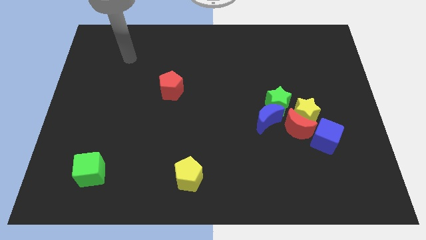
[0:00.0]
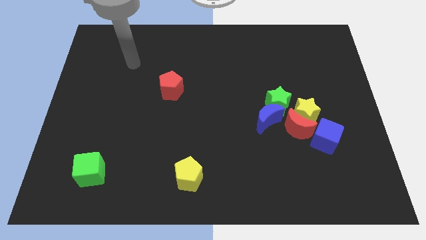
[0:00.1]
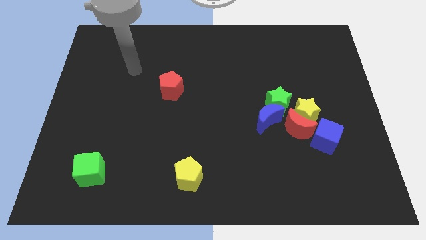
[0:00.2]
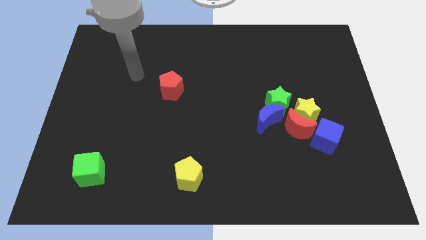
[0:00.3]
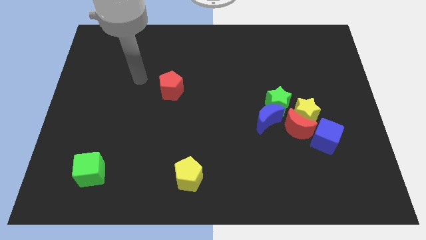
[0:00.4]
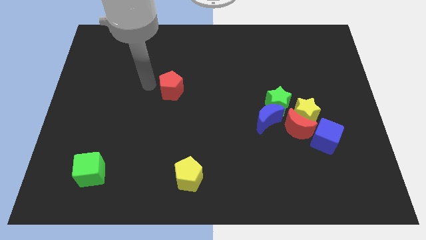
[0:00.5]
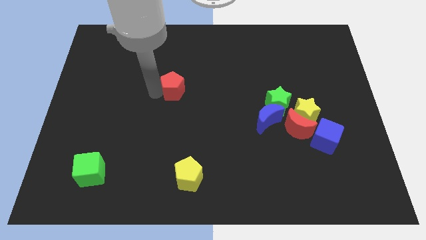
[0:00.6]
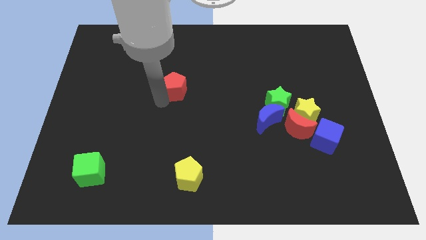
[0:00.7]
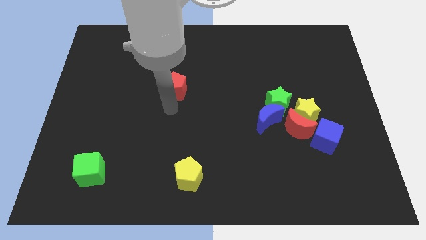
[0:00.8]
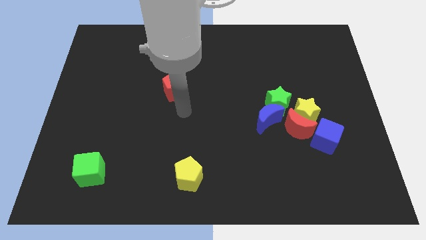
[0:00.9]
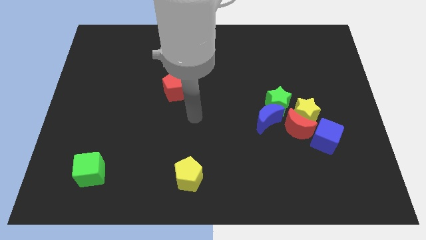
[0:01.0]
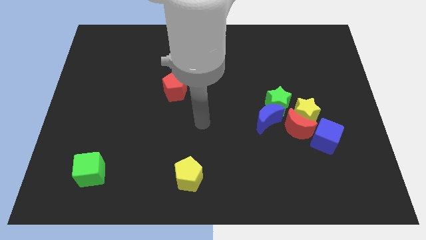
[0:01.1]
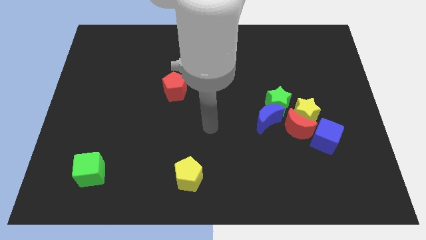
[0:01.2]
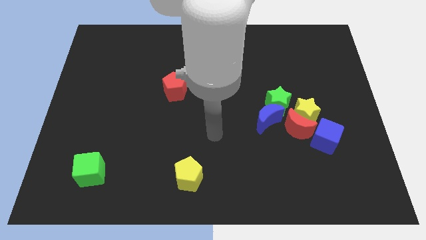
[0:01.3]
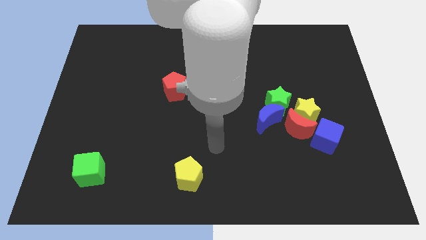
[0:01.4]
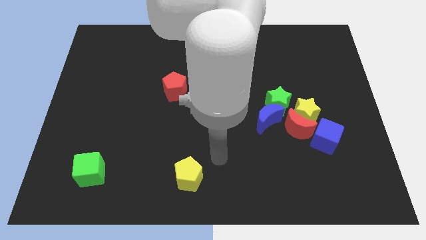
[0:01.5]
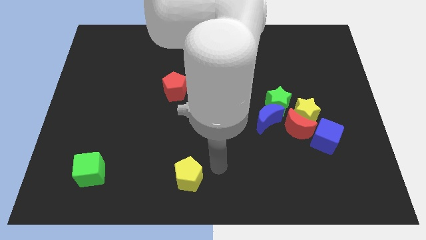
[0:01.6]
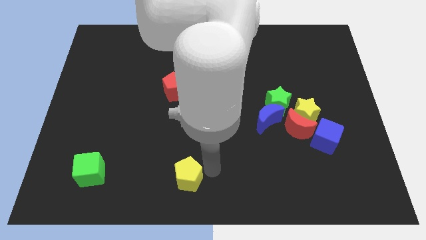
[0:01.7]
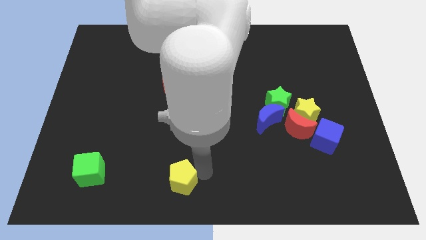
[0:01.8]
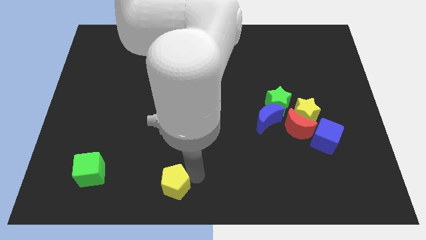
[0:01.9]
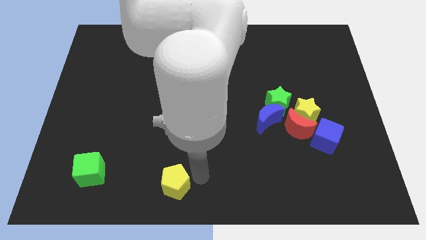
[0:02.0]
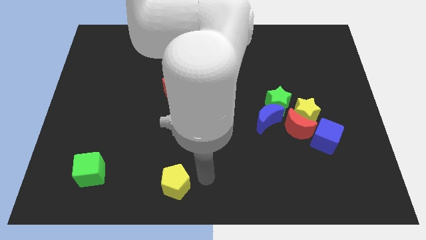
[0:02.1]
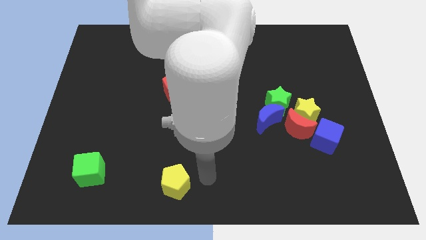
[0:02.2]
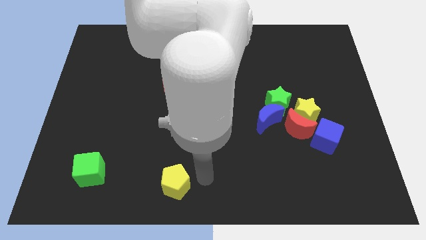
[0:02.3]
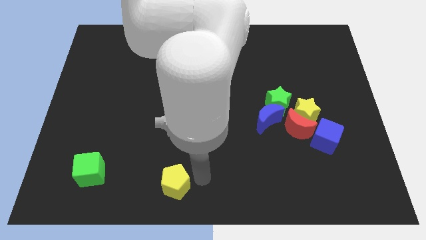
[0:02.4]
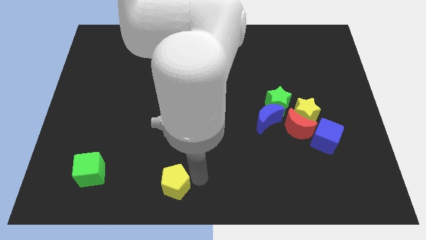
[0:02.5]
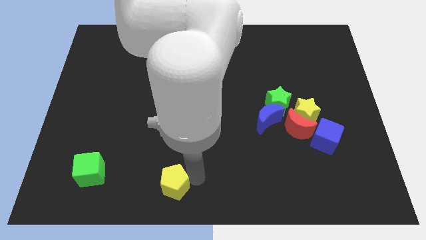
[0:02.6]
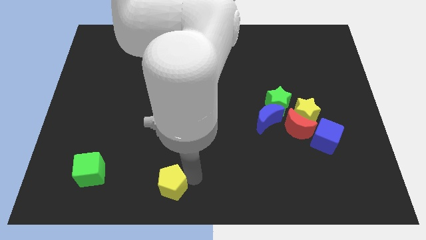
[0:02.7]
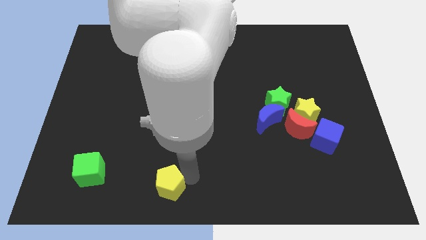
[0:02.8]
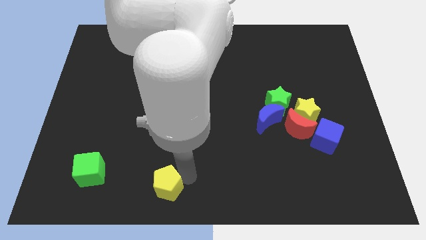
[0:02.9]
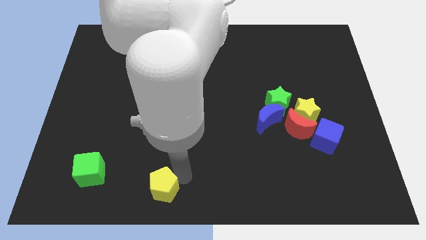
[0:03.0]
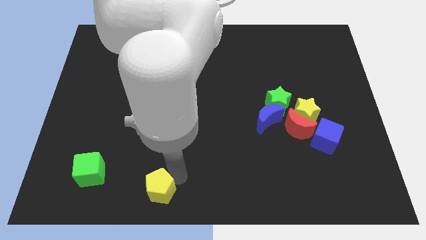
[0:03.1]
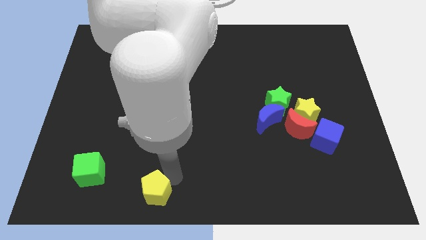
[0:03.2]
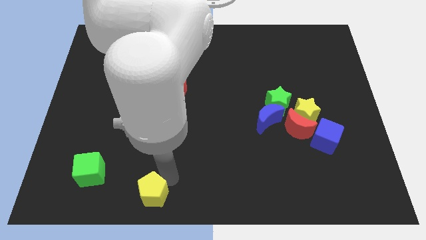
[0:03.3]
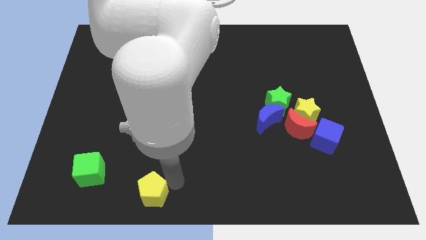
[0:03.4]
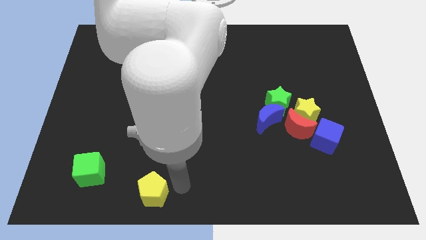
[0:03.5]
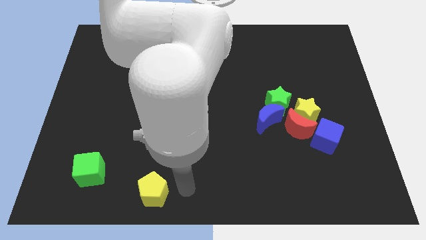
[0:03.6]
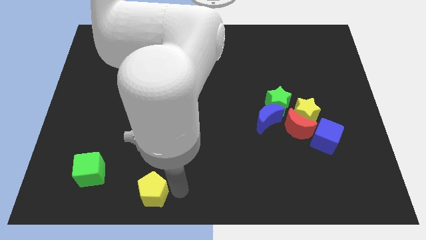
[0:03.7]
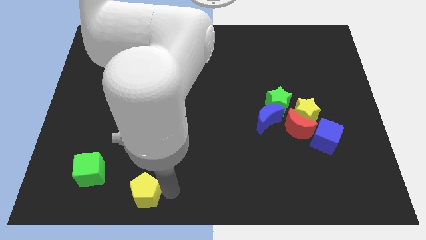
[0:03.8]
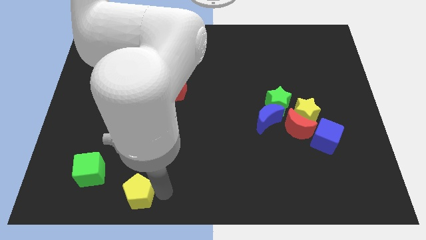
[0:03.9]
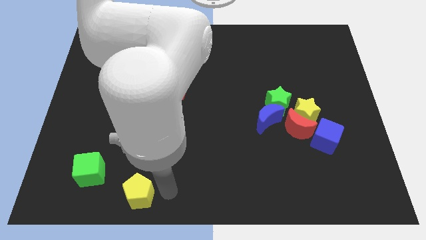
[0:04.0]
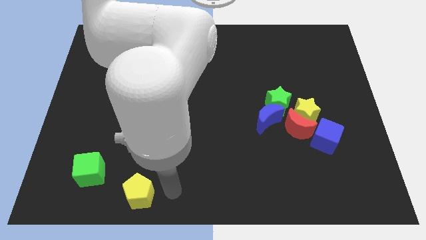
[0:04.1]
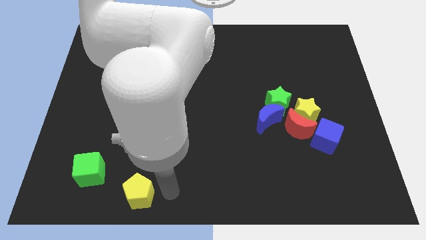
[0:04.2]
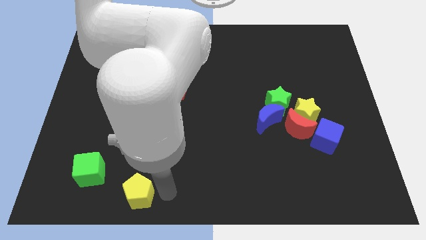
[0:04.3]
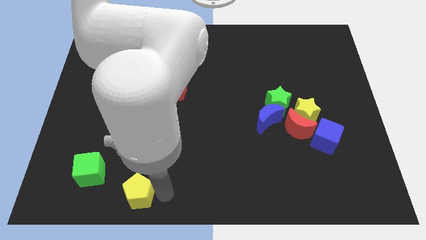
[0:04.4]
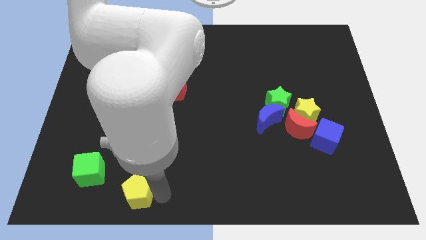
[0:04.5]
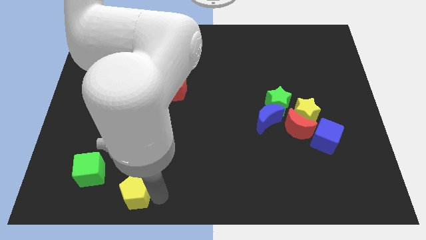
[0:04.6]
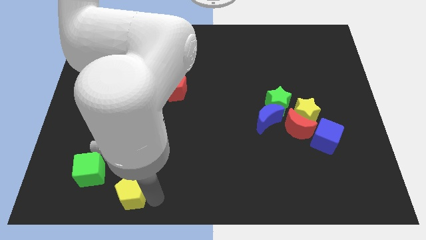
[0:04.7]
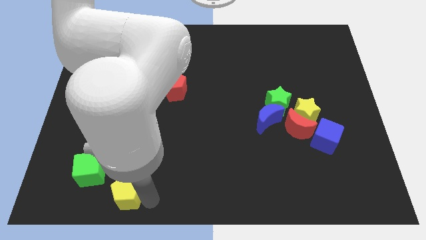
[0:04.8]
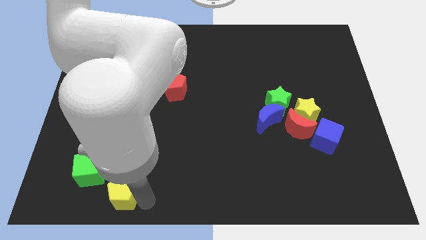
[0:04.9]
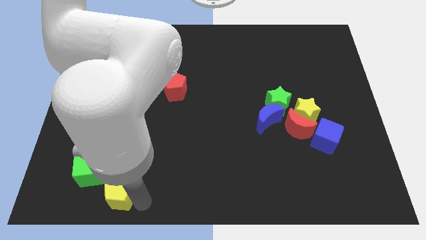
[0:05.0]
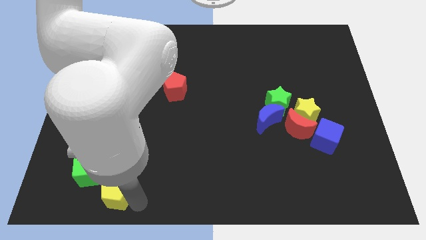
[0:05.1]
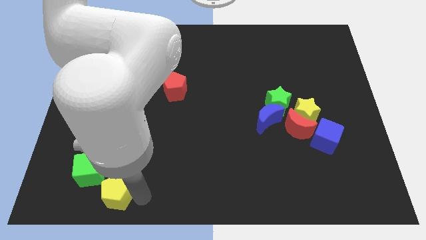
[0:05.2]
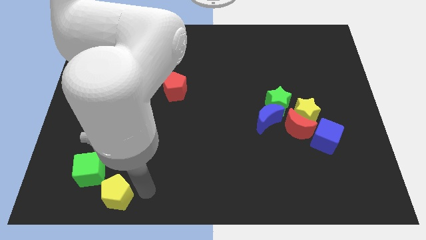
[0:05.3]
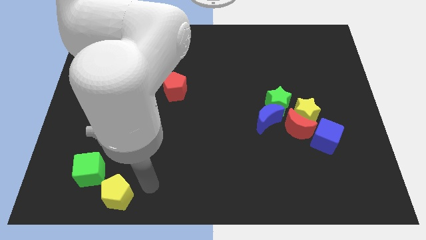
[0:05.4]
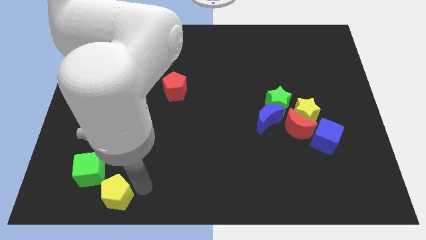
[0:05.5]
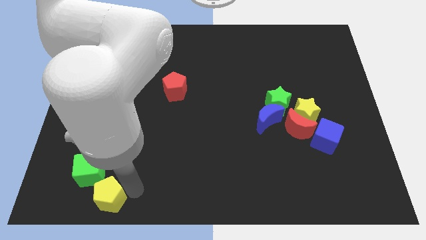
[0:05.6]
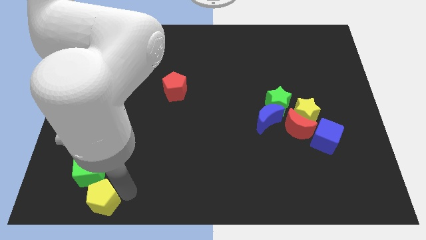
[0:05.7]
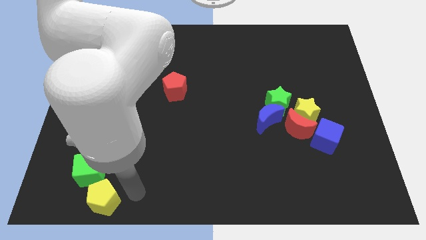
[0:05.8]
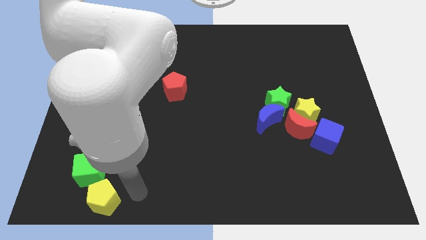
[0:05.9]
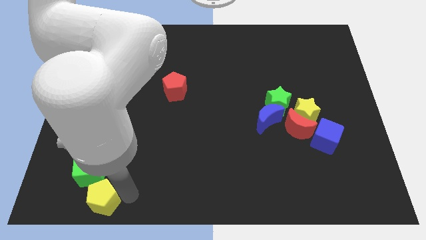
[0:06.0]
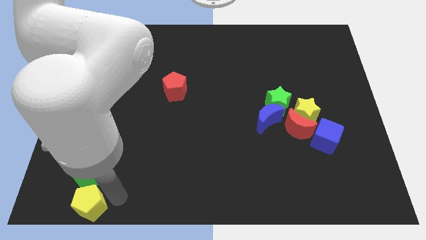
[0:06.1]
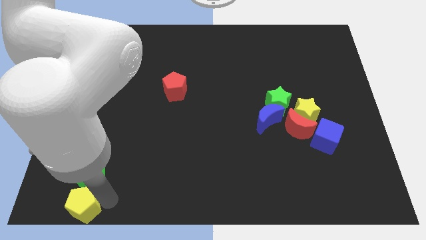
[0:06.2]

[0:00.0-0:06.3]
put the yellow pentagon to the lower left corner
